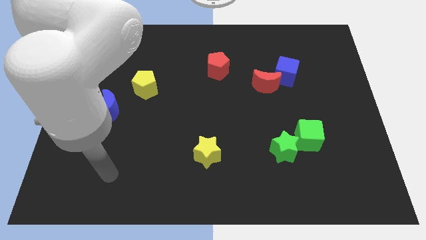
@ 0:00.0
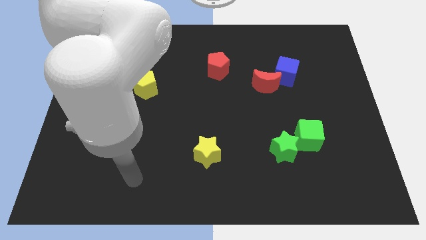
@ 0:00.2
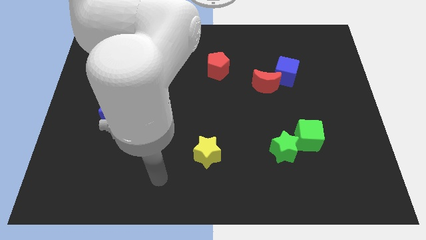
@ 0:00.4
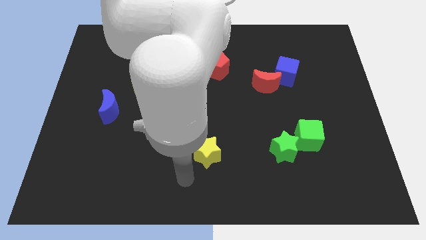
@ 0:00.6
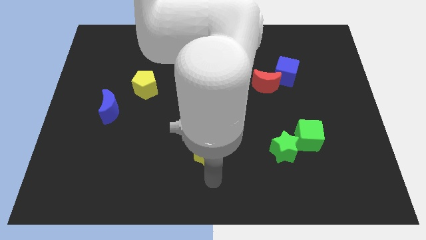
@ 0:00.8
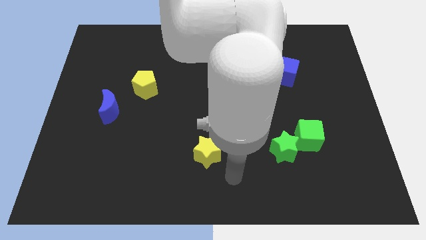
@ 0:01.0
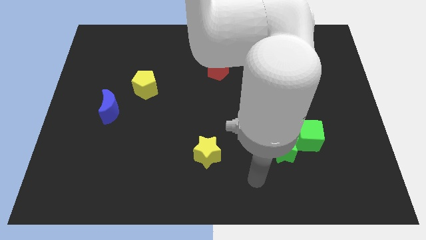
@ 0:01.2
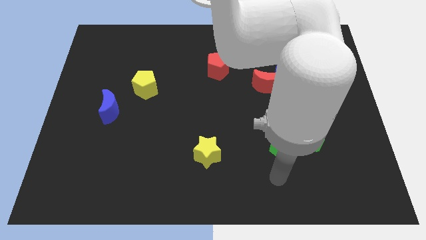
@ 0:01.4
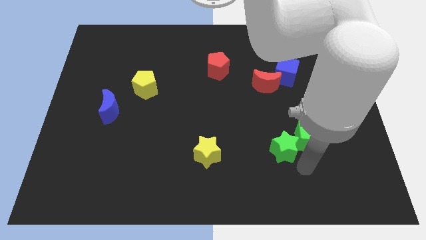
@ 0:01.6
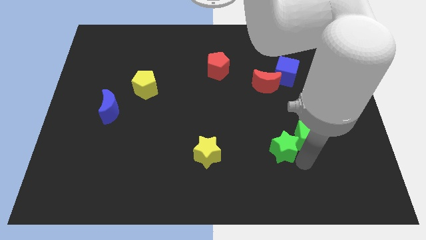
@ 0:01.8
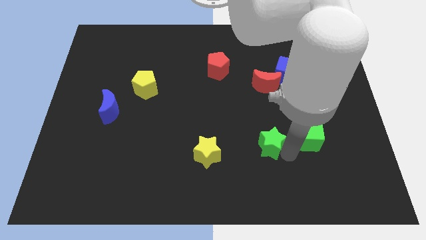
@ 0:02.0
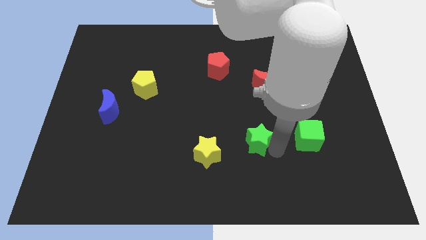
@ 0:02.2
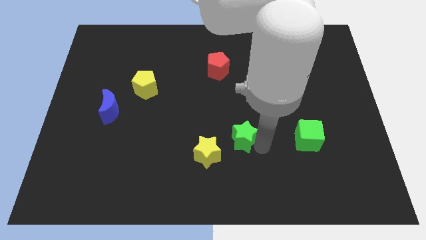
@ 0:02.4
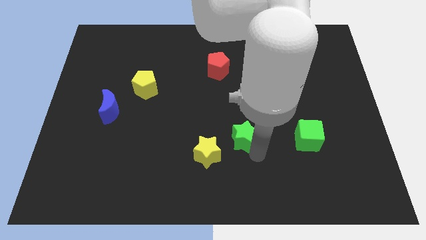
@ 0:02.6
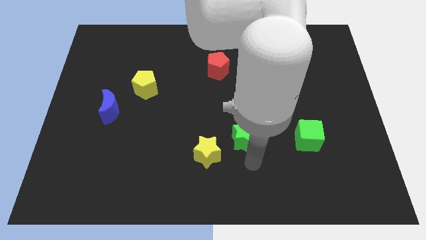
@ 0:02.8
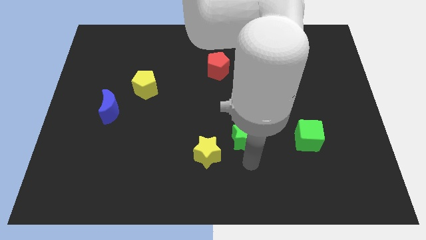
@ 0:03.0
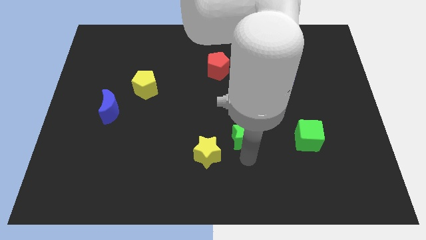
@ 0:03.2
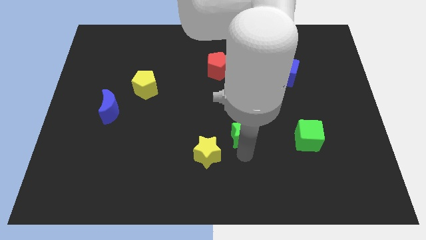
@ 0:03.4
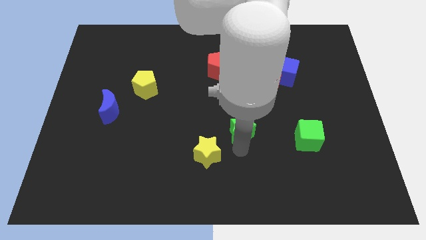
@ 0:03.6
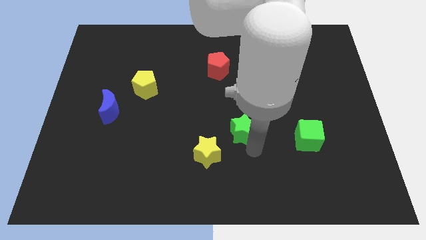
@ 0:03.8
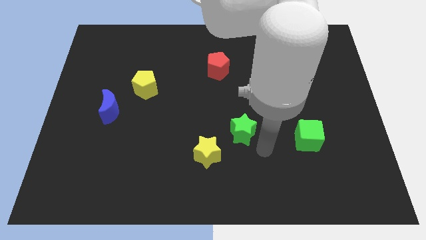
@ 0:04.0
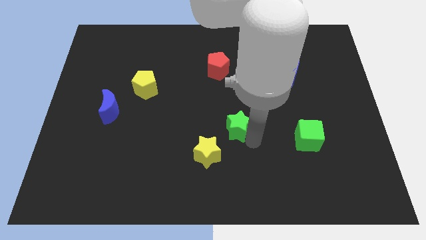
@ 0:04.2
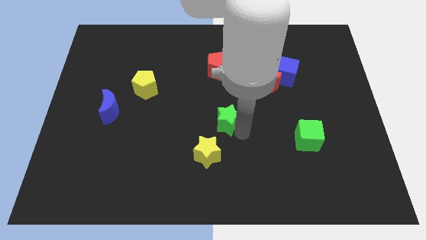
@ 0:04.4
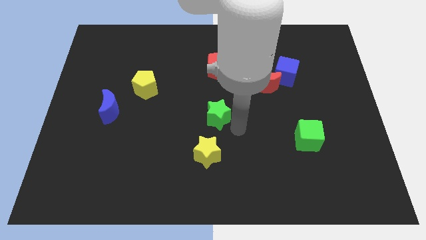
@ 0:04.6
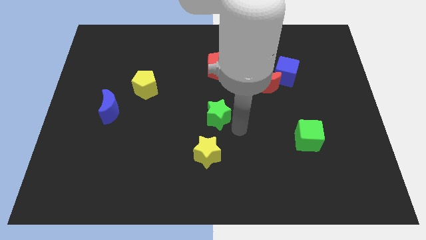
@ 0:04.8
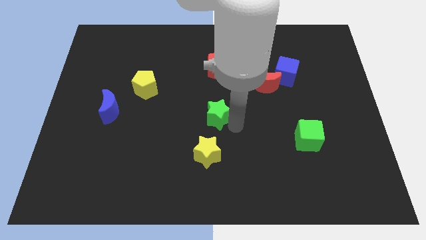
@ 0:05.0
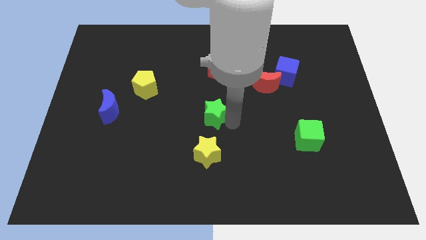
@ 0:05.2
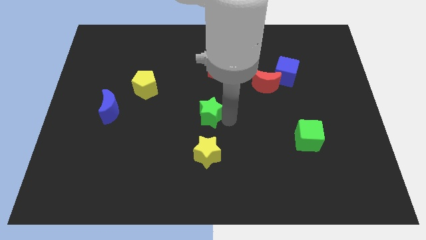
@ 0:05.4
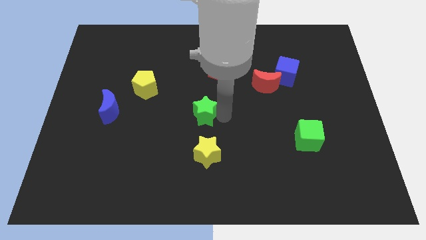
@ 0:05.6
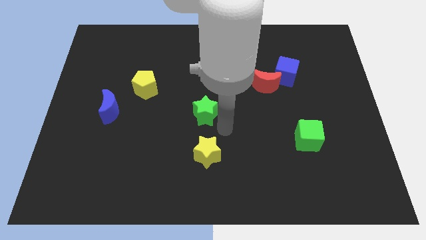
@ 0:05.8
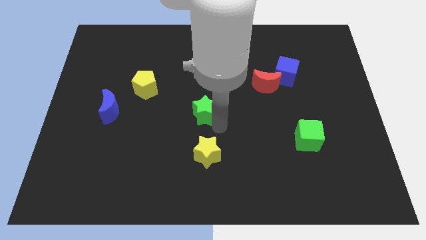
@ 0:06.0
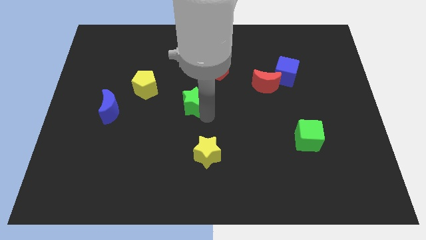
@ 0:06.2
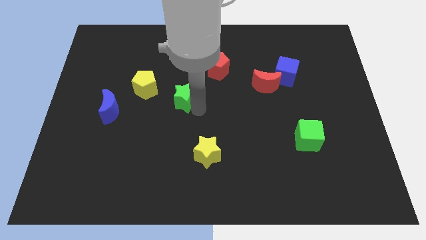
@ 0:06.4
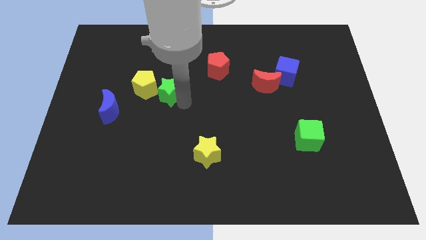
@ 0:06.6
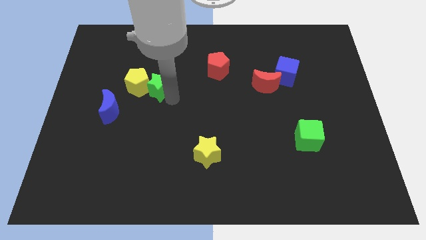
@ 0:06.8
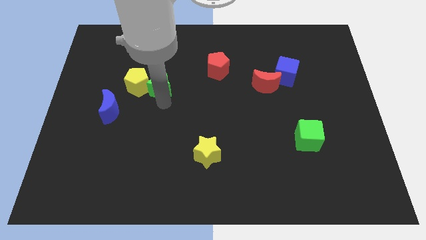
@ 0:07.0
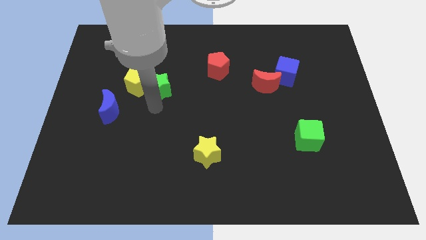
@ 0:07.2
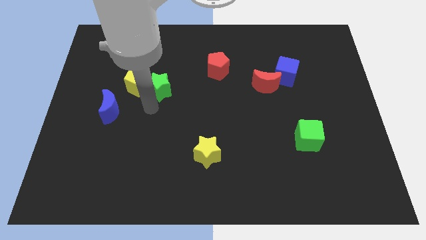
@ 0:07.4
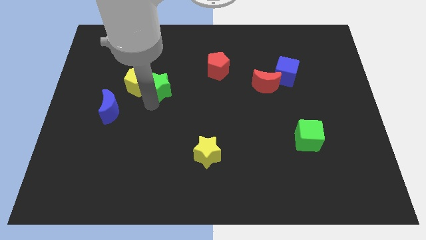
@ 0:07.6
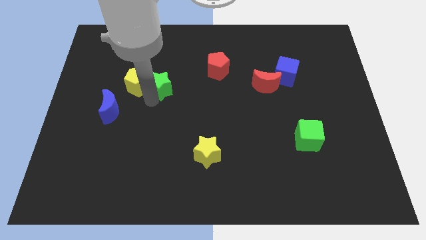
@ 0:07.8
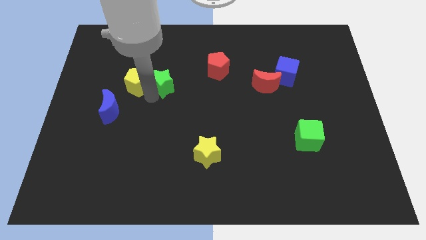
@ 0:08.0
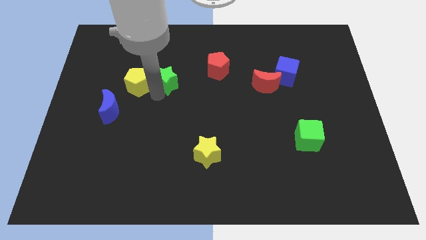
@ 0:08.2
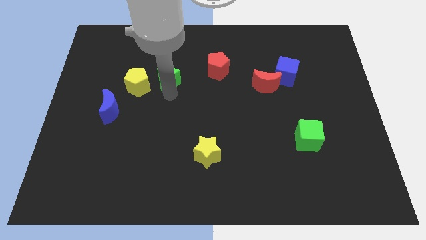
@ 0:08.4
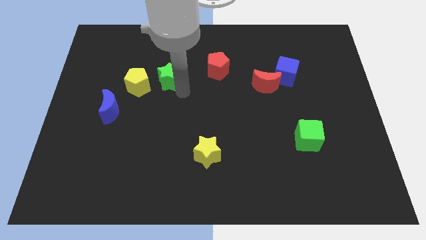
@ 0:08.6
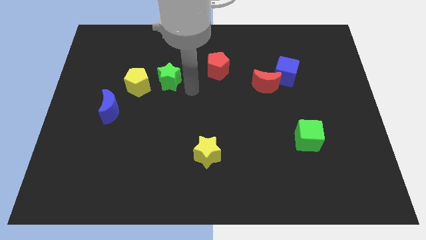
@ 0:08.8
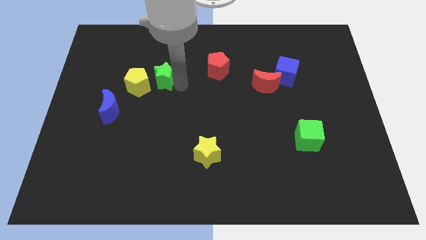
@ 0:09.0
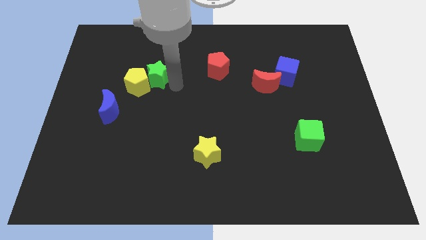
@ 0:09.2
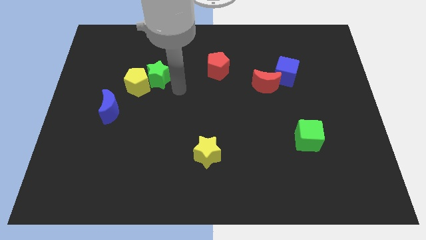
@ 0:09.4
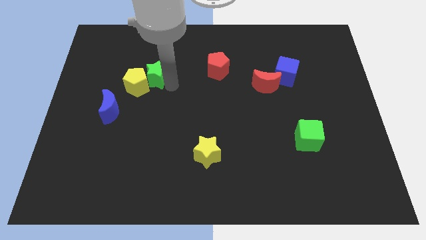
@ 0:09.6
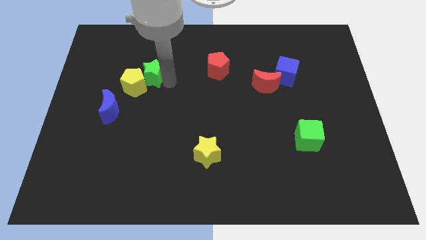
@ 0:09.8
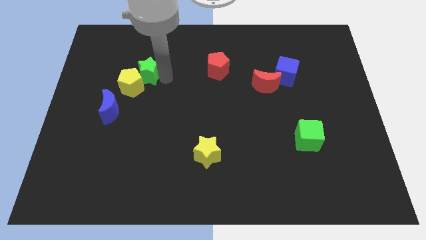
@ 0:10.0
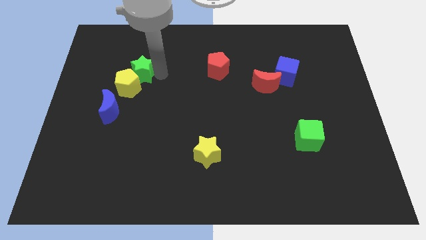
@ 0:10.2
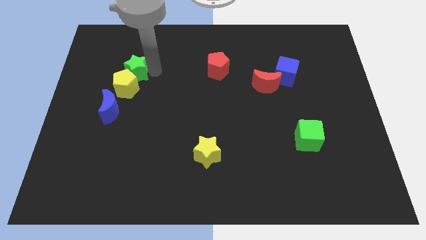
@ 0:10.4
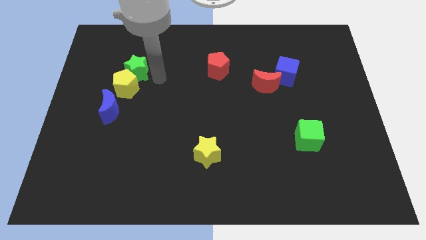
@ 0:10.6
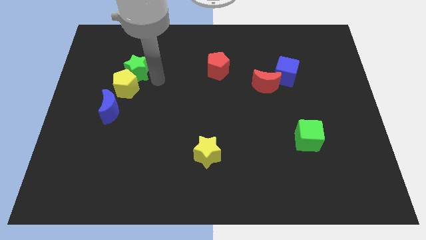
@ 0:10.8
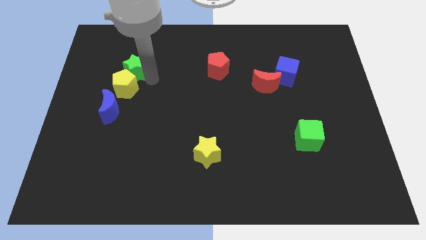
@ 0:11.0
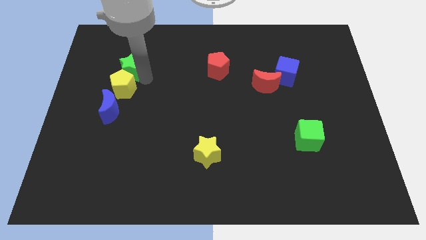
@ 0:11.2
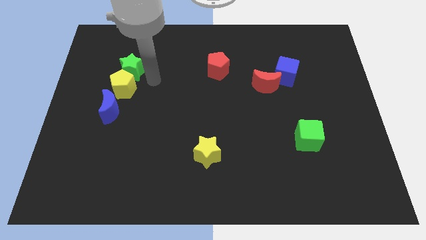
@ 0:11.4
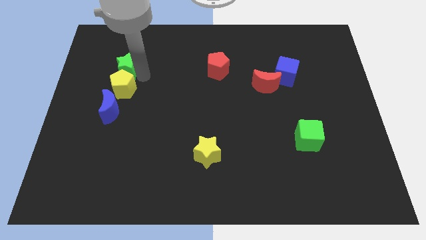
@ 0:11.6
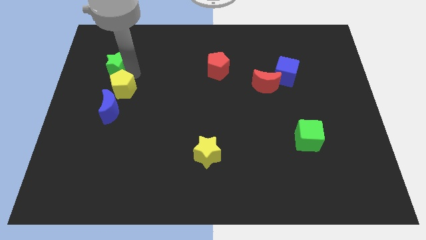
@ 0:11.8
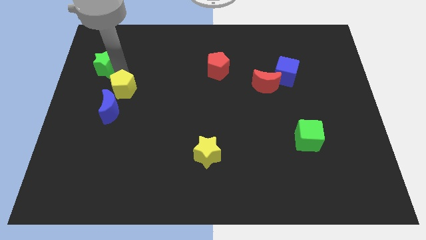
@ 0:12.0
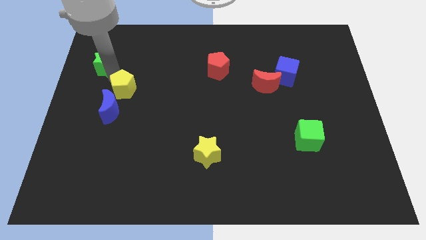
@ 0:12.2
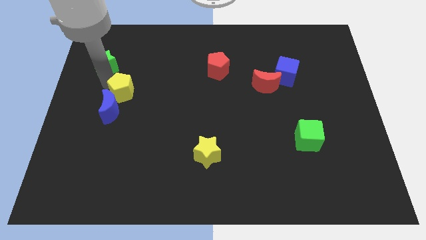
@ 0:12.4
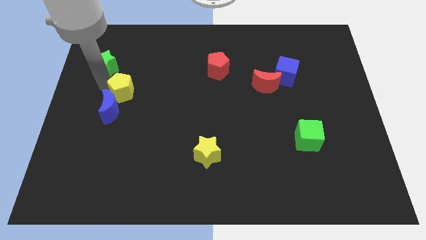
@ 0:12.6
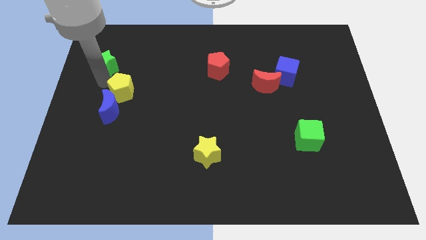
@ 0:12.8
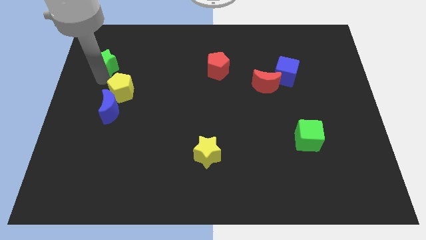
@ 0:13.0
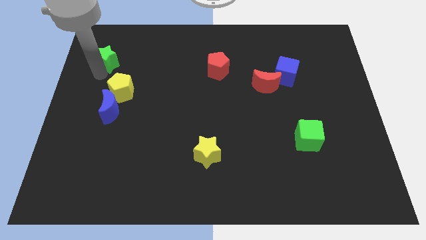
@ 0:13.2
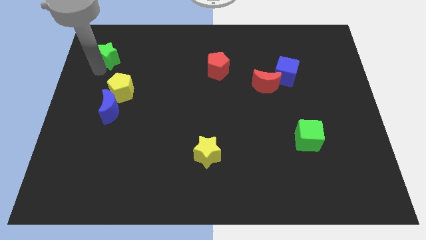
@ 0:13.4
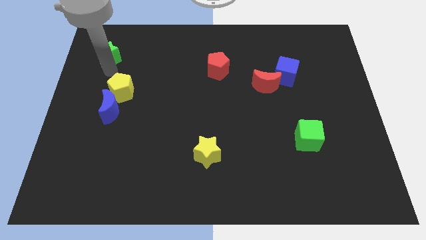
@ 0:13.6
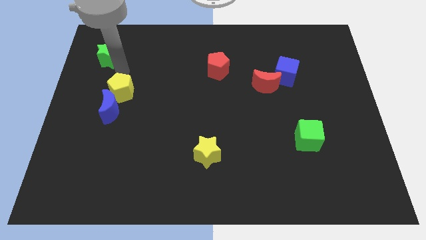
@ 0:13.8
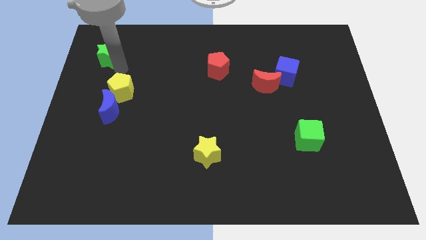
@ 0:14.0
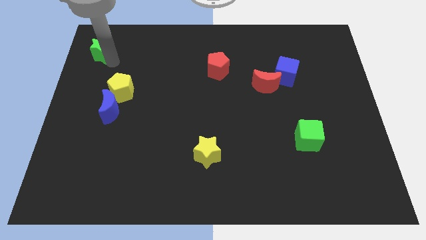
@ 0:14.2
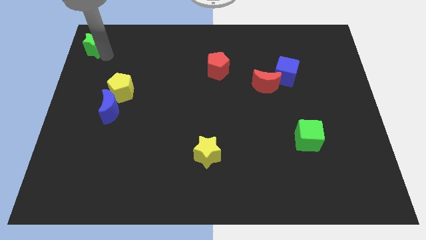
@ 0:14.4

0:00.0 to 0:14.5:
put the green star to the top left of the board
